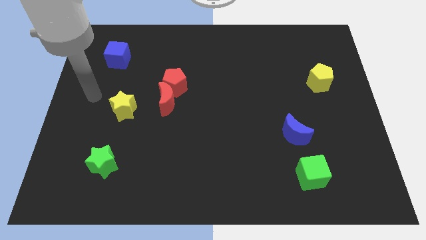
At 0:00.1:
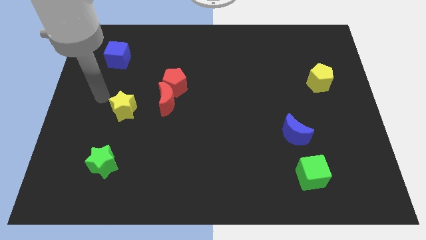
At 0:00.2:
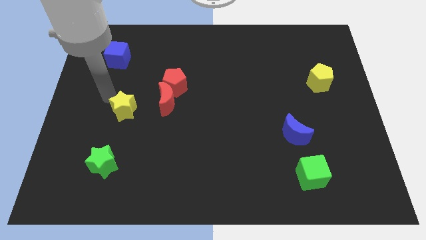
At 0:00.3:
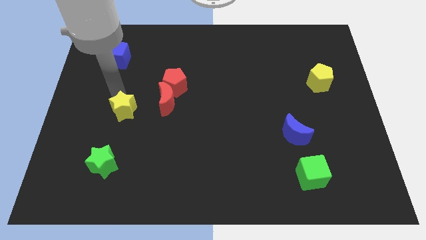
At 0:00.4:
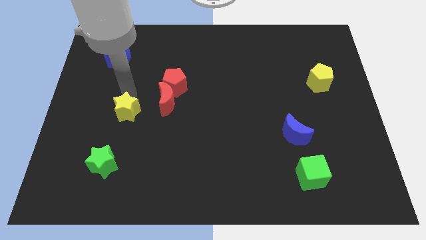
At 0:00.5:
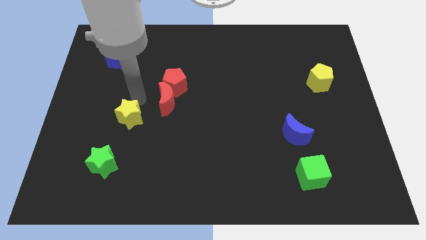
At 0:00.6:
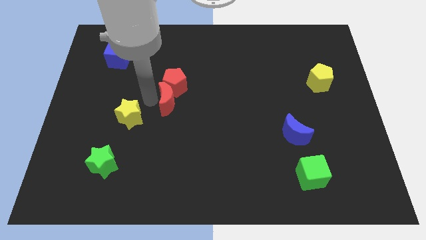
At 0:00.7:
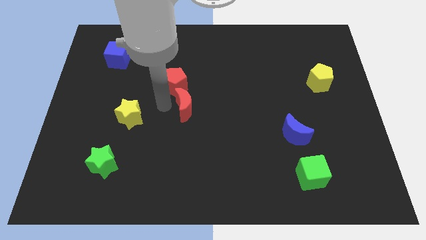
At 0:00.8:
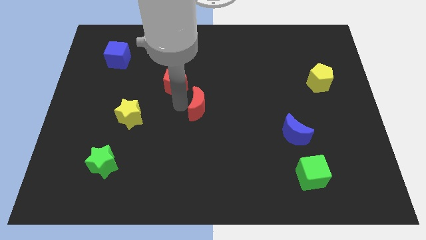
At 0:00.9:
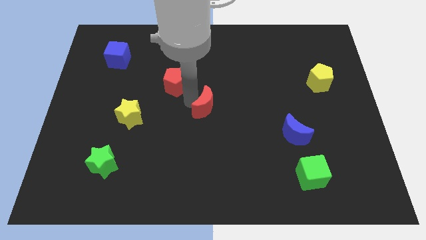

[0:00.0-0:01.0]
pull the red pentagon apart from the red moon

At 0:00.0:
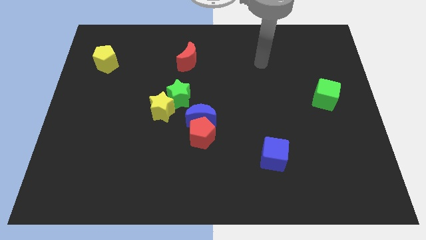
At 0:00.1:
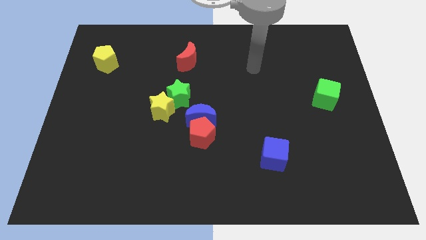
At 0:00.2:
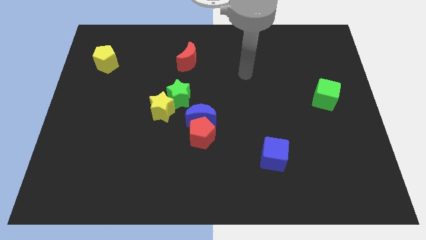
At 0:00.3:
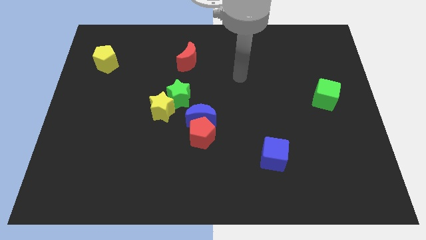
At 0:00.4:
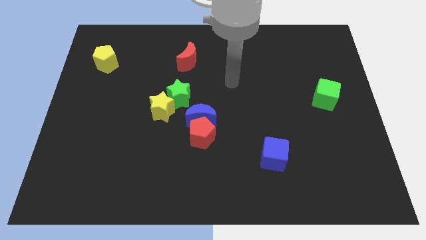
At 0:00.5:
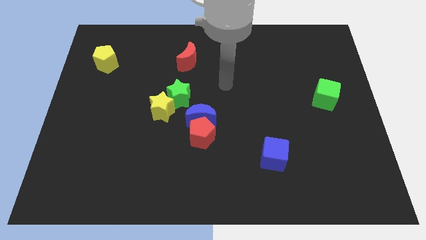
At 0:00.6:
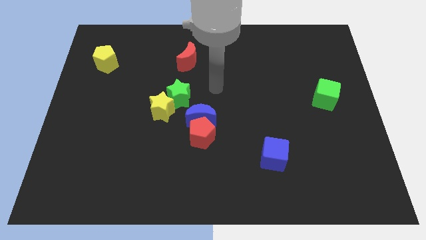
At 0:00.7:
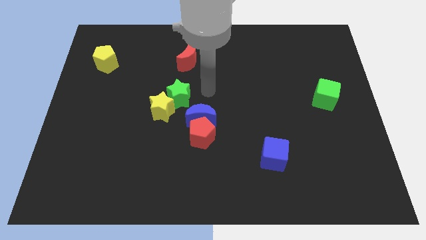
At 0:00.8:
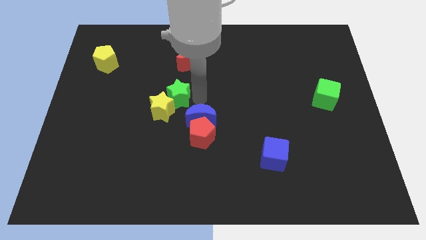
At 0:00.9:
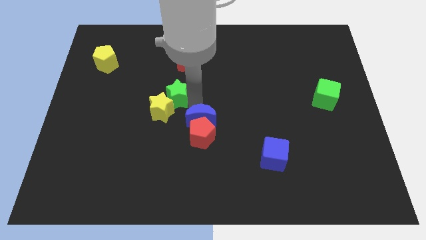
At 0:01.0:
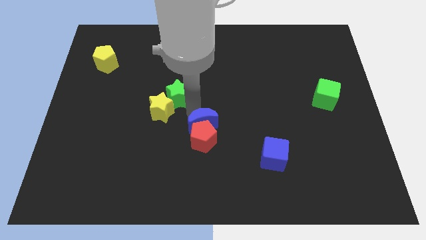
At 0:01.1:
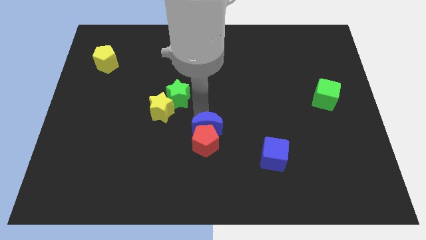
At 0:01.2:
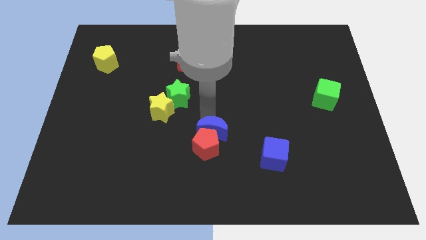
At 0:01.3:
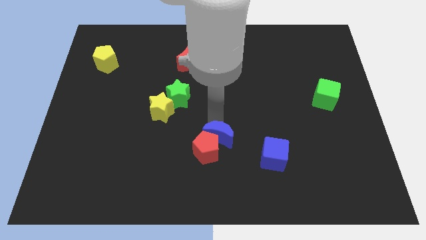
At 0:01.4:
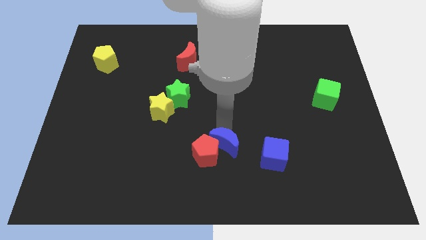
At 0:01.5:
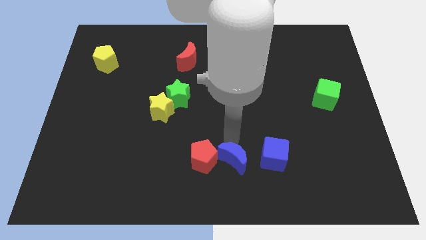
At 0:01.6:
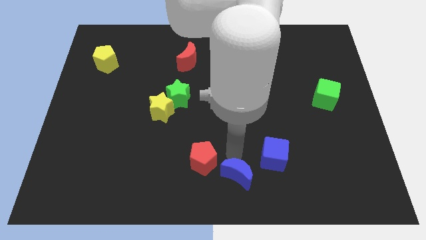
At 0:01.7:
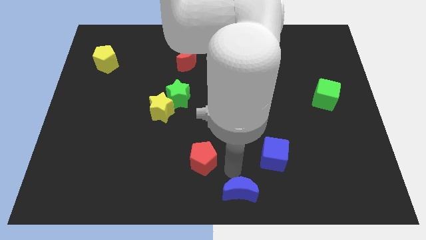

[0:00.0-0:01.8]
move the red pentagon away from the blue moon

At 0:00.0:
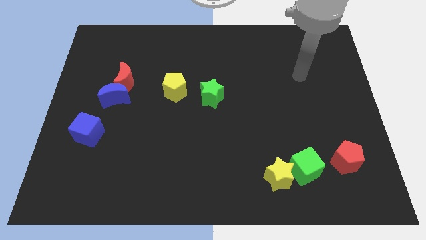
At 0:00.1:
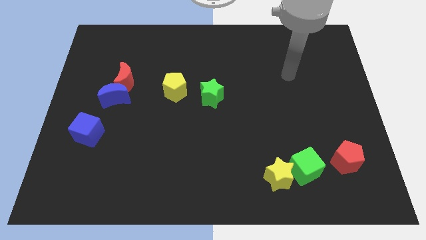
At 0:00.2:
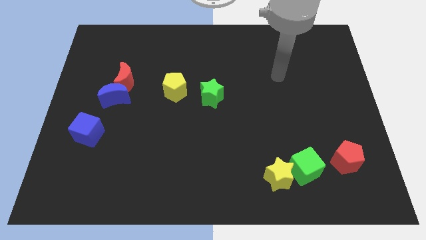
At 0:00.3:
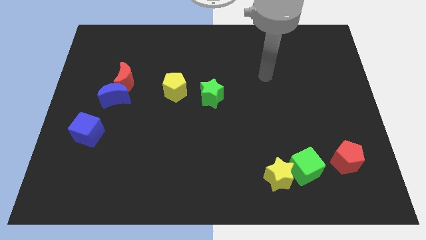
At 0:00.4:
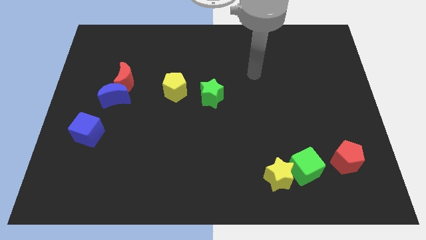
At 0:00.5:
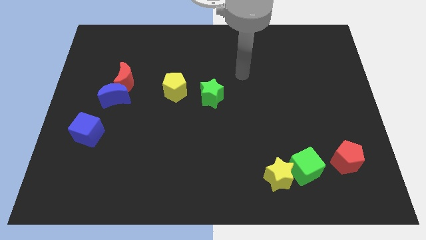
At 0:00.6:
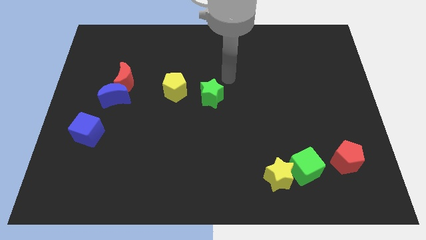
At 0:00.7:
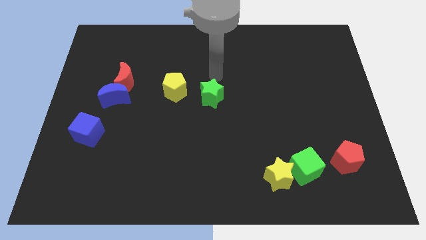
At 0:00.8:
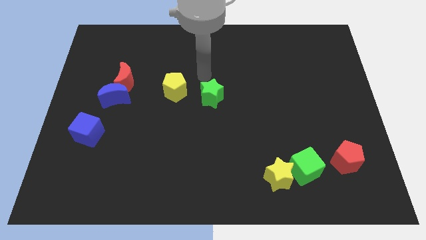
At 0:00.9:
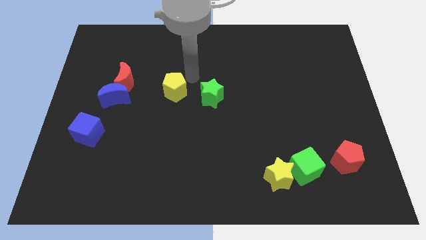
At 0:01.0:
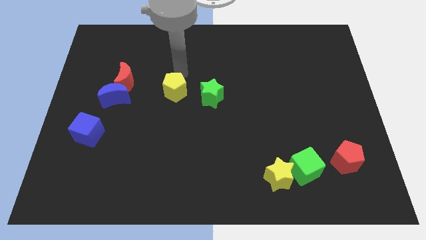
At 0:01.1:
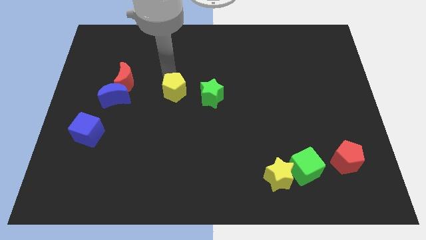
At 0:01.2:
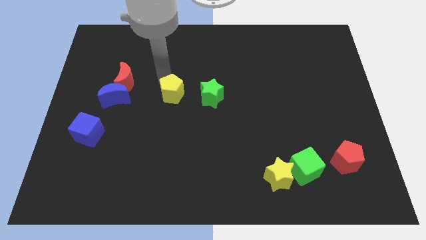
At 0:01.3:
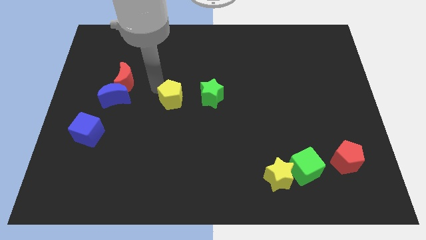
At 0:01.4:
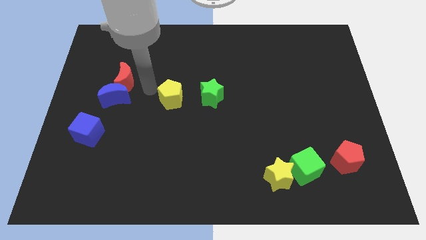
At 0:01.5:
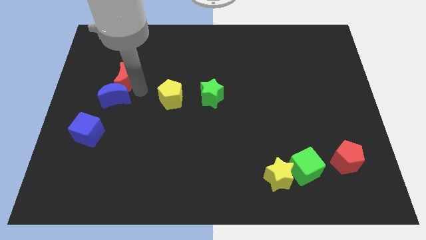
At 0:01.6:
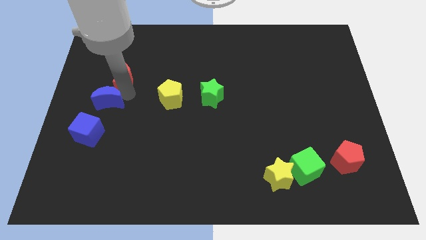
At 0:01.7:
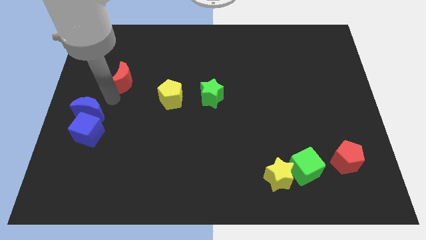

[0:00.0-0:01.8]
separate the red moon from the blue moon

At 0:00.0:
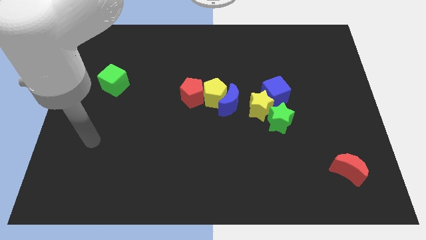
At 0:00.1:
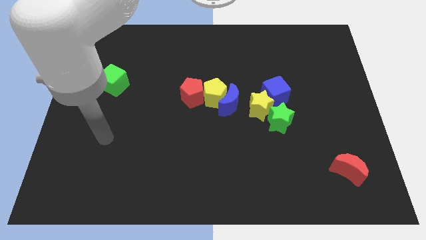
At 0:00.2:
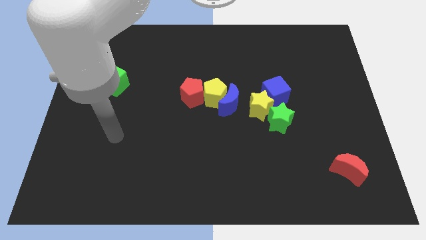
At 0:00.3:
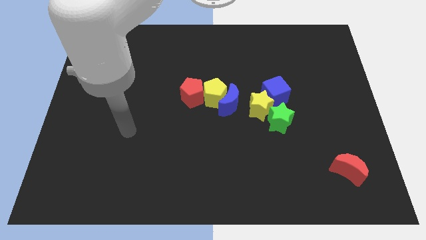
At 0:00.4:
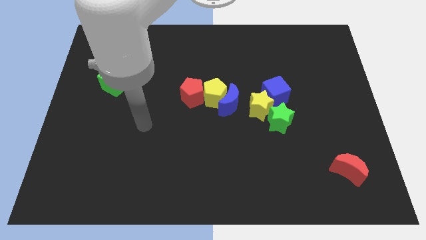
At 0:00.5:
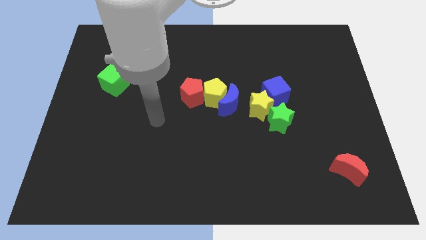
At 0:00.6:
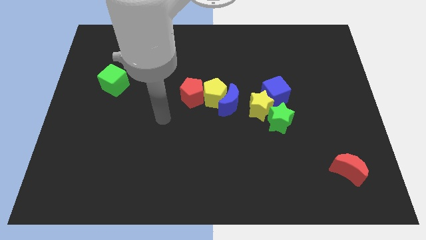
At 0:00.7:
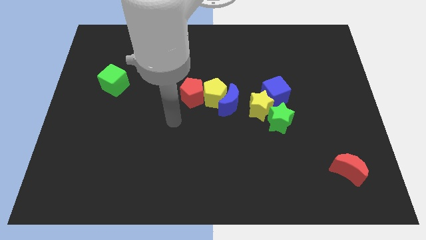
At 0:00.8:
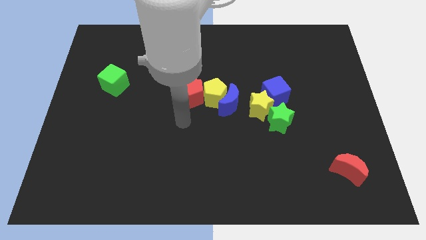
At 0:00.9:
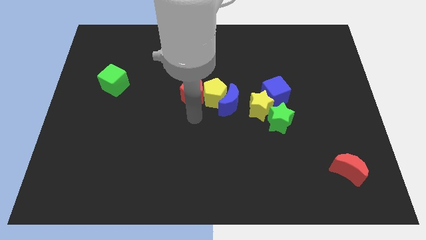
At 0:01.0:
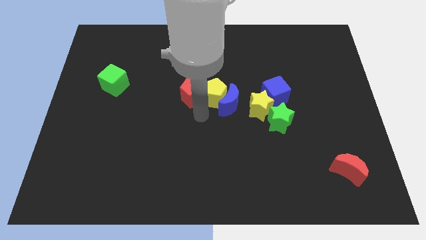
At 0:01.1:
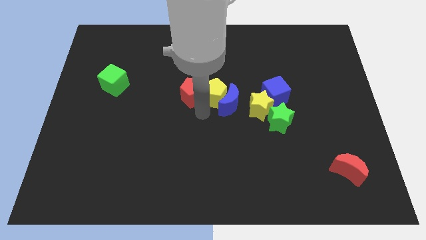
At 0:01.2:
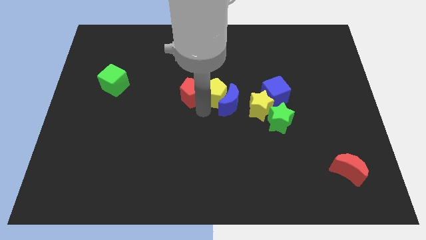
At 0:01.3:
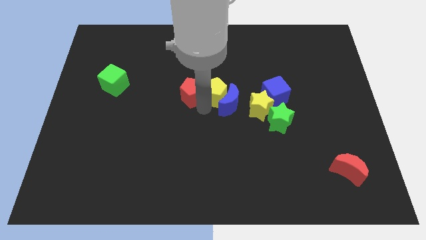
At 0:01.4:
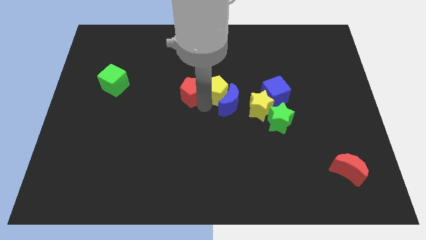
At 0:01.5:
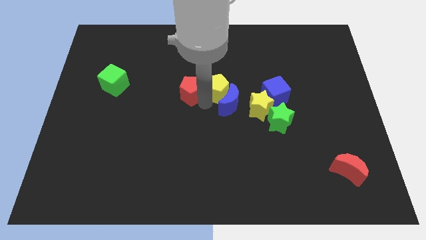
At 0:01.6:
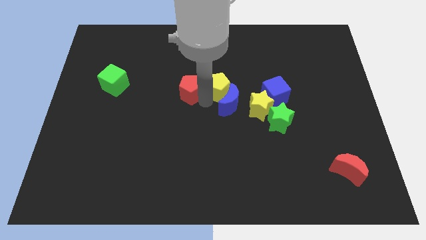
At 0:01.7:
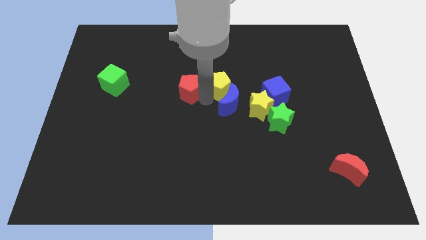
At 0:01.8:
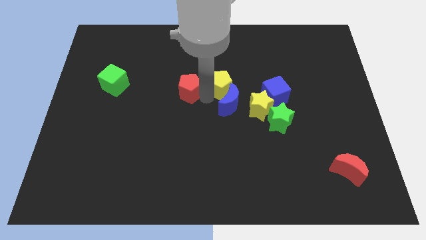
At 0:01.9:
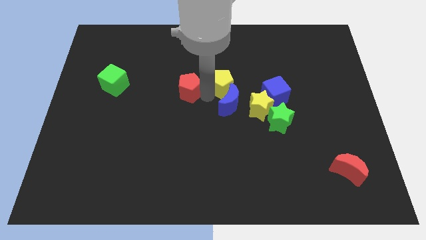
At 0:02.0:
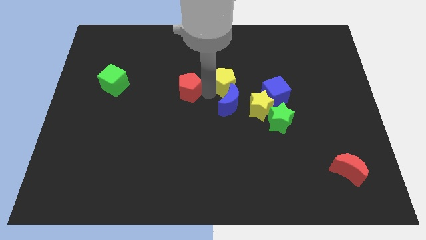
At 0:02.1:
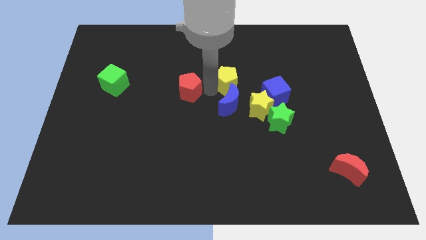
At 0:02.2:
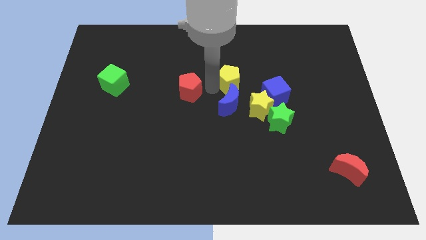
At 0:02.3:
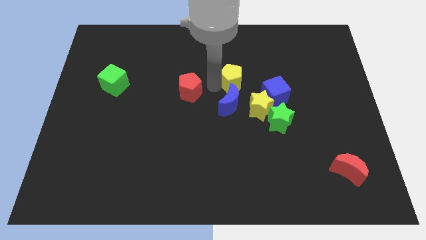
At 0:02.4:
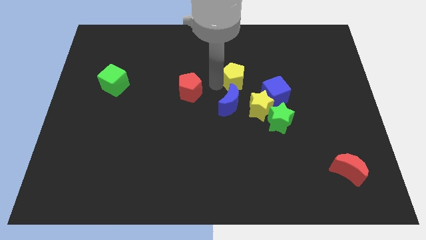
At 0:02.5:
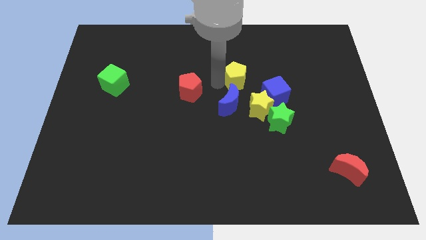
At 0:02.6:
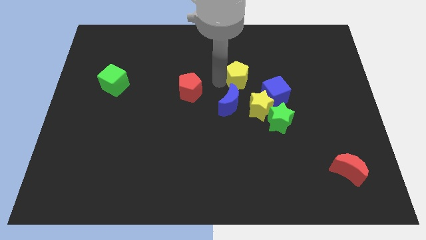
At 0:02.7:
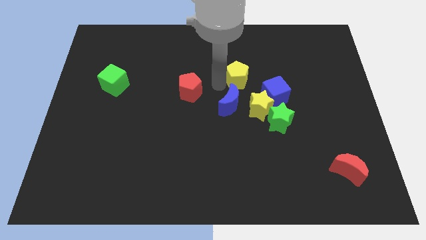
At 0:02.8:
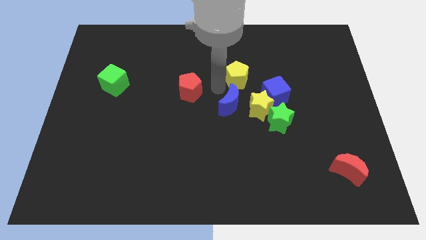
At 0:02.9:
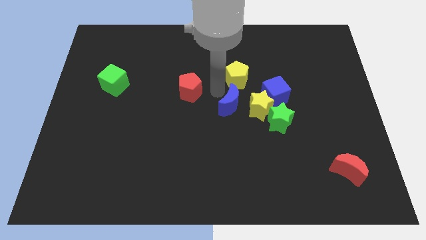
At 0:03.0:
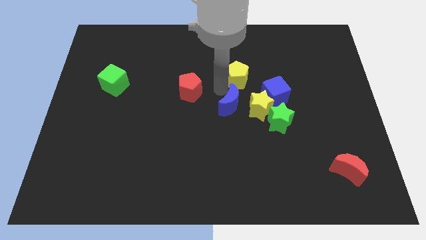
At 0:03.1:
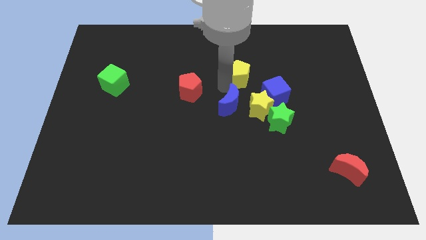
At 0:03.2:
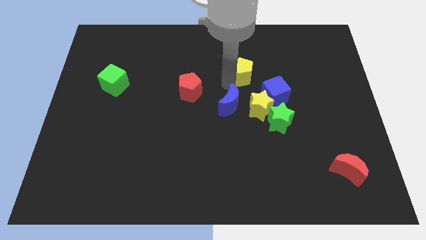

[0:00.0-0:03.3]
pull the yellow pentagon apart from the blue moon and red pentagon

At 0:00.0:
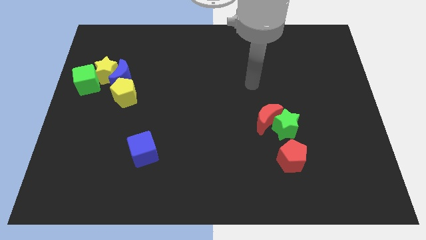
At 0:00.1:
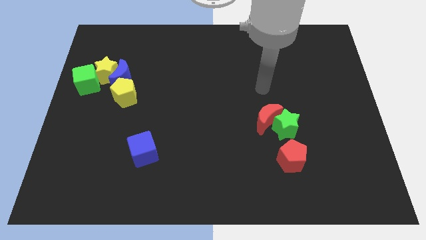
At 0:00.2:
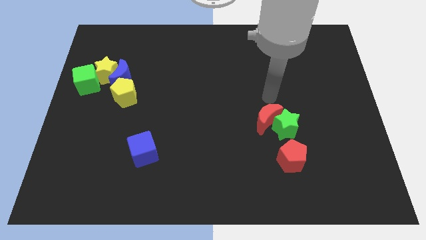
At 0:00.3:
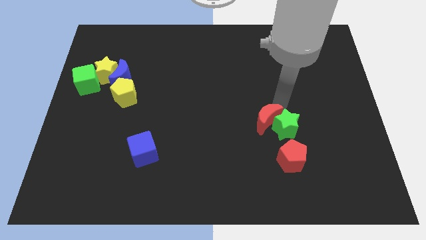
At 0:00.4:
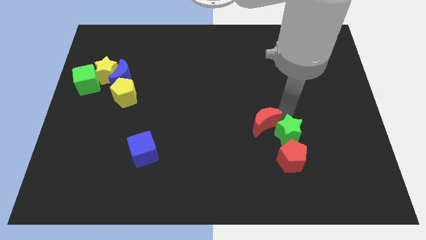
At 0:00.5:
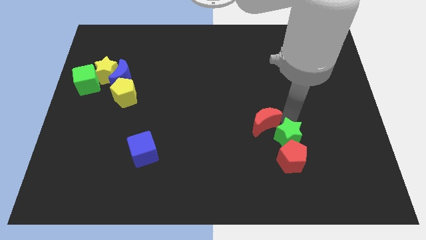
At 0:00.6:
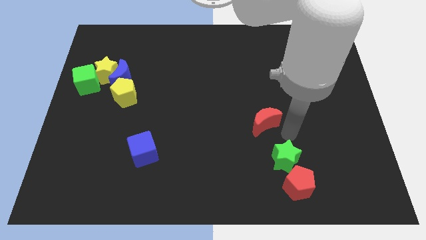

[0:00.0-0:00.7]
move the red moon away from the green star

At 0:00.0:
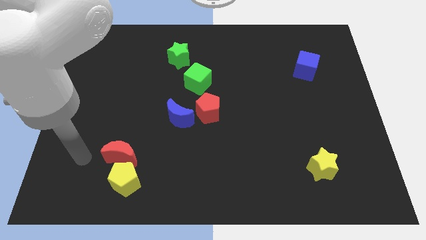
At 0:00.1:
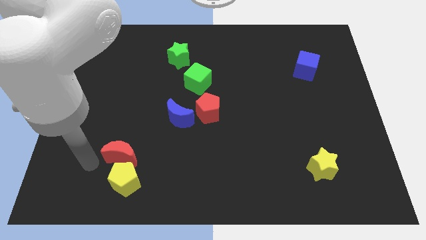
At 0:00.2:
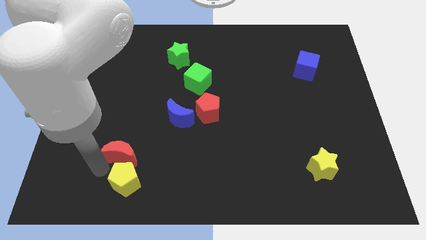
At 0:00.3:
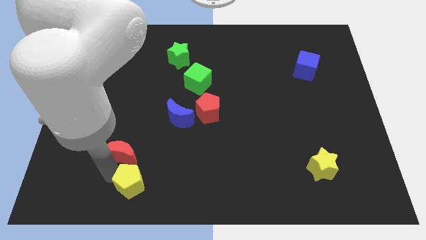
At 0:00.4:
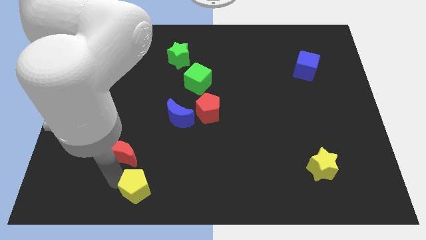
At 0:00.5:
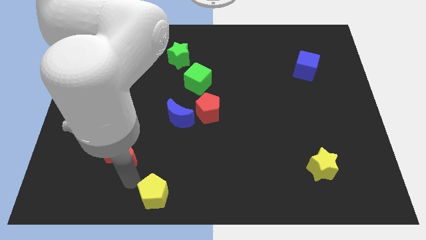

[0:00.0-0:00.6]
separate the red moon from the yellow pentagon
